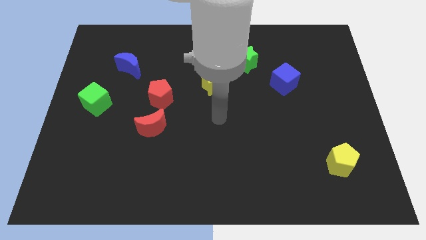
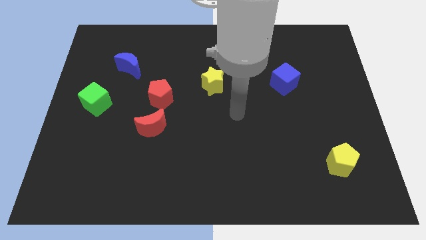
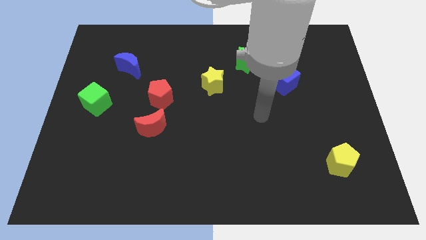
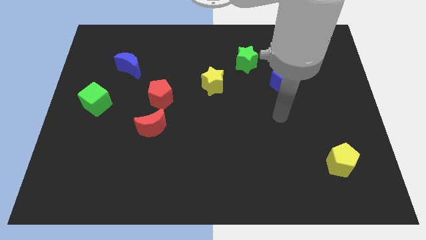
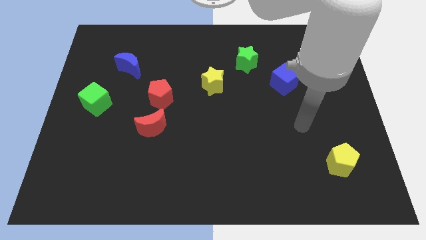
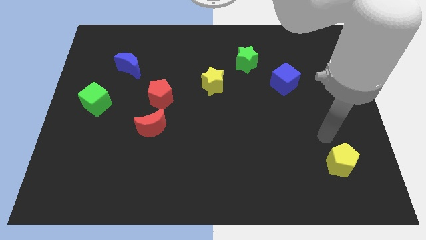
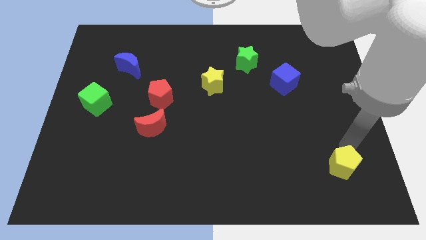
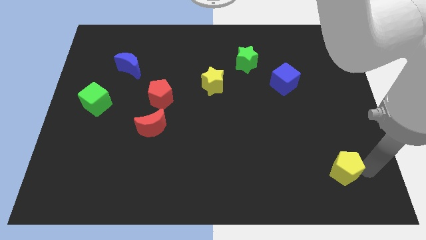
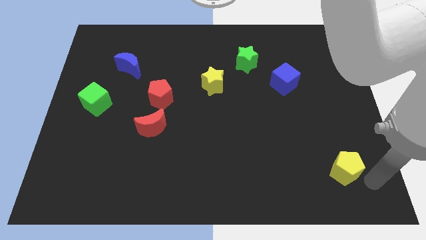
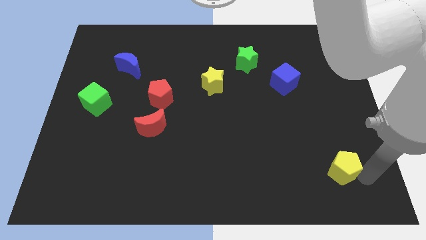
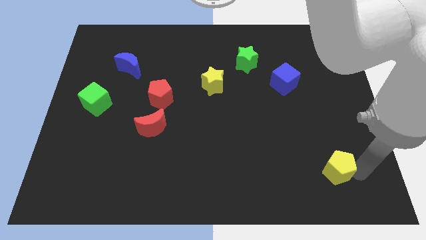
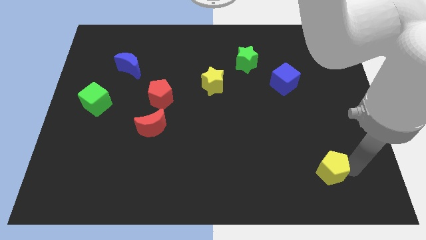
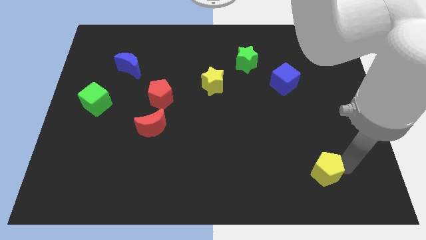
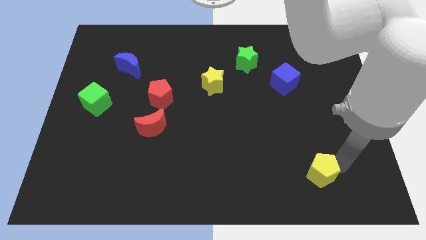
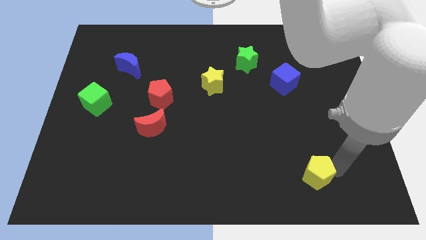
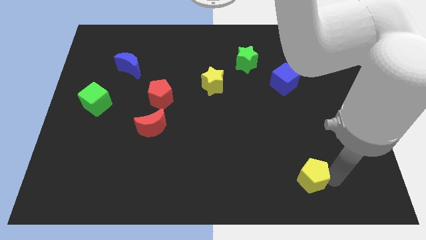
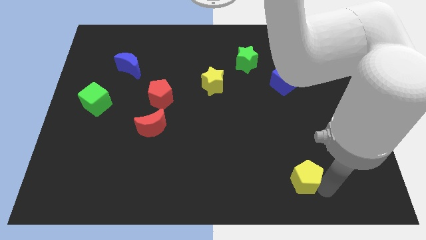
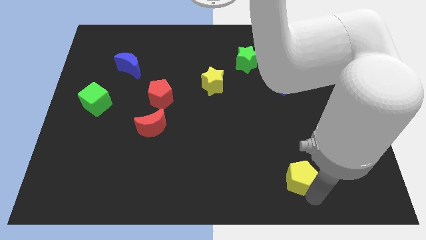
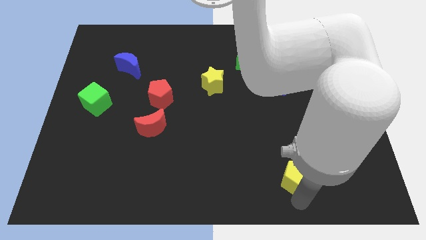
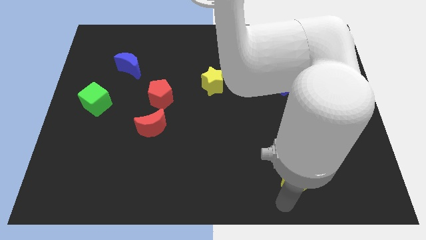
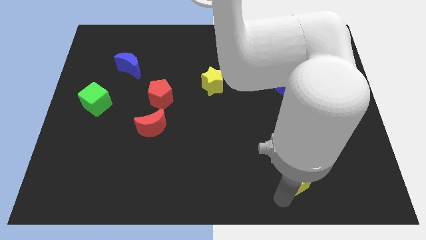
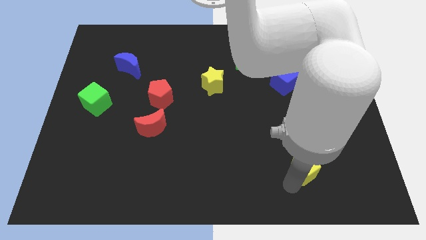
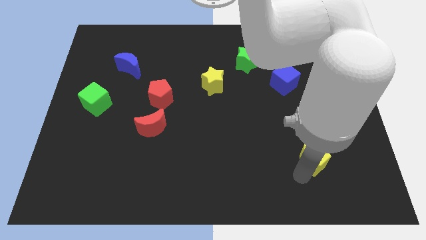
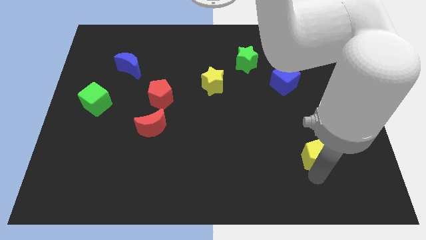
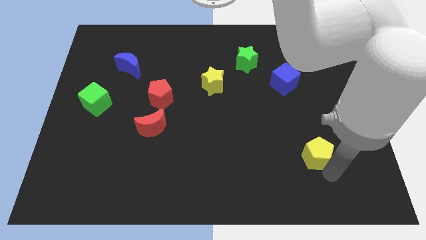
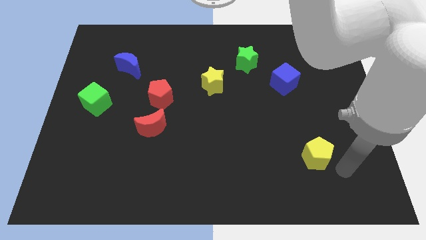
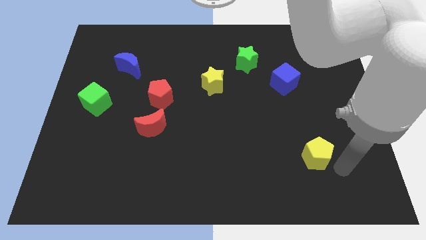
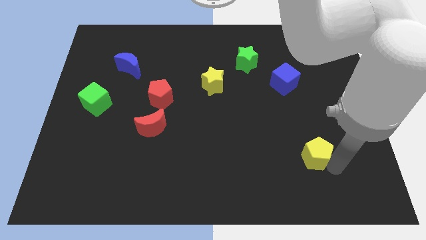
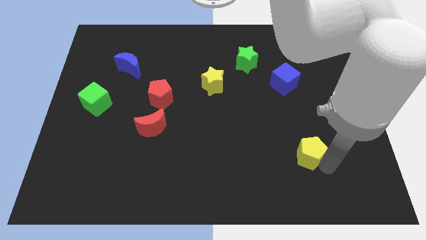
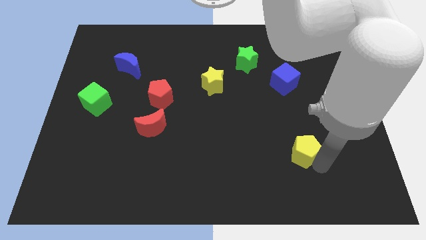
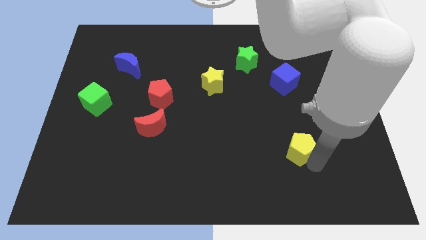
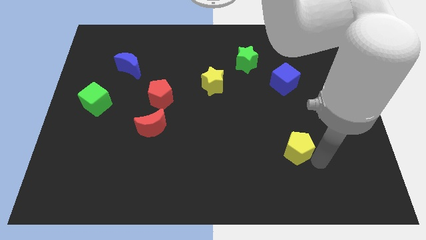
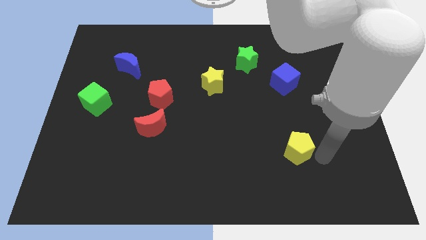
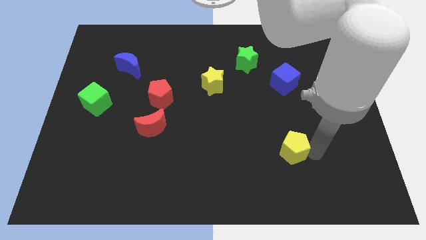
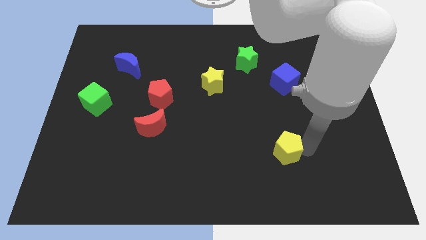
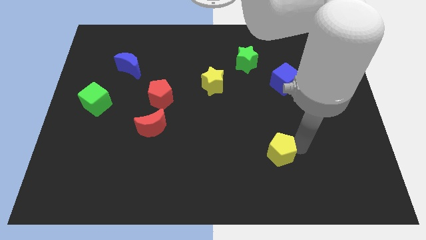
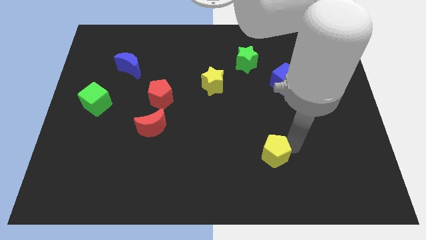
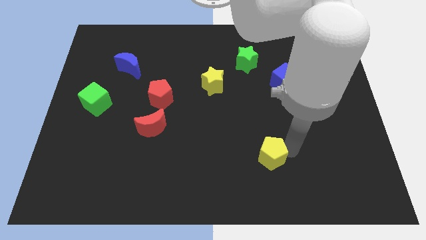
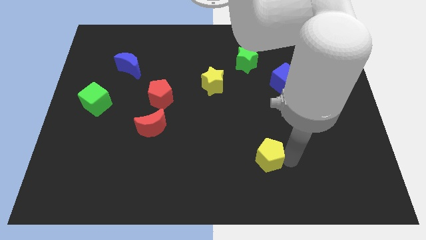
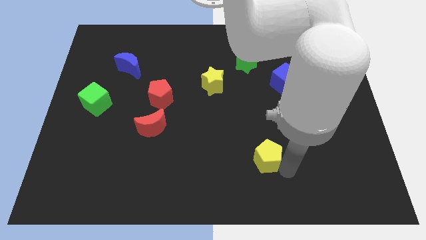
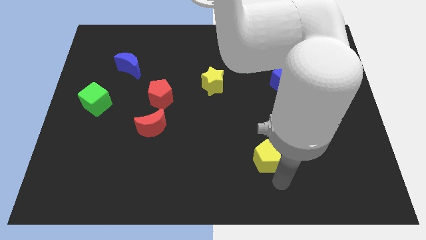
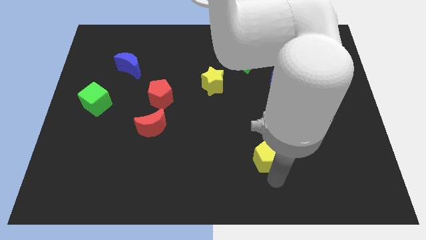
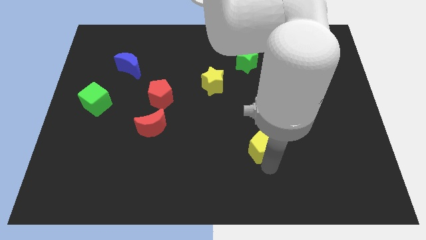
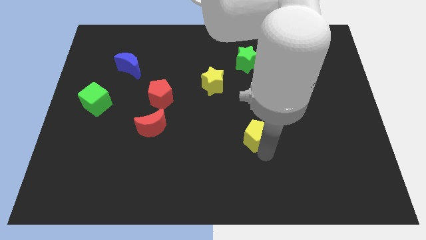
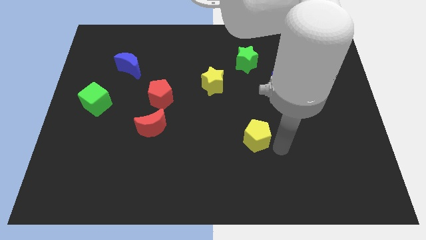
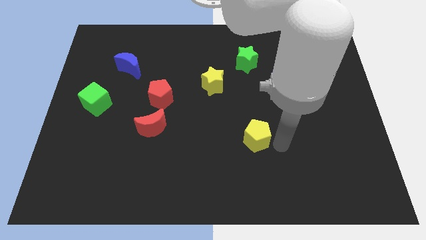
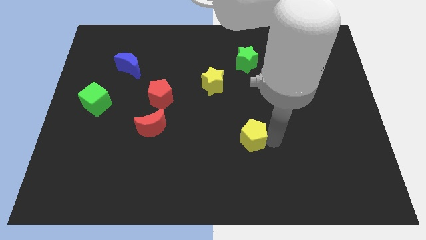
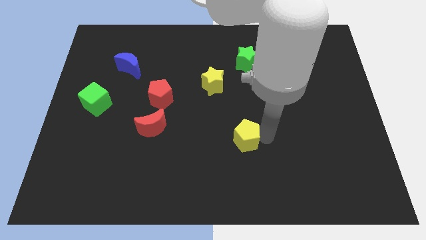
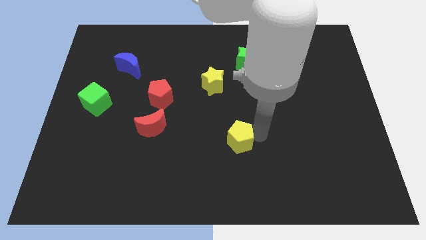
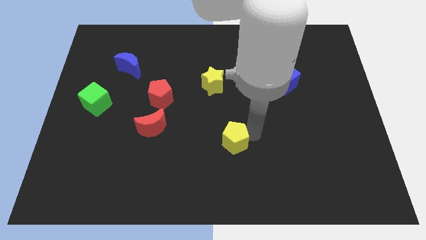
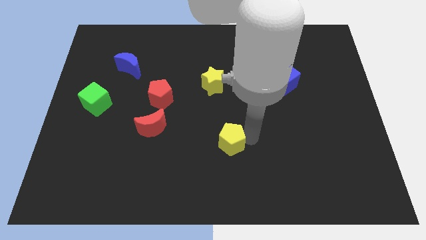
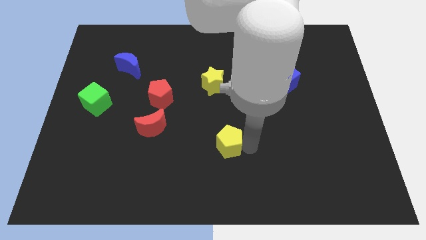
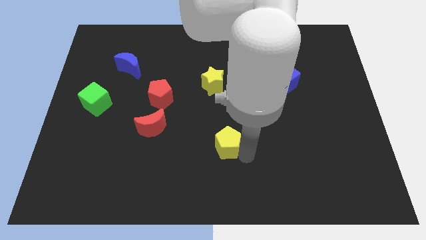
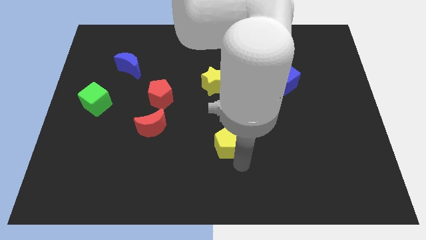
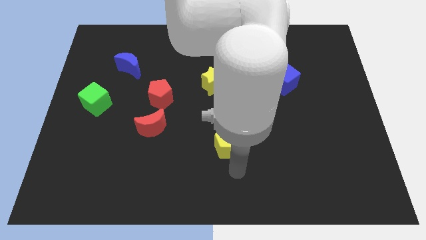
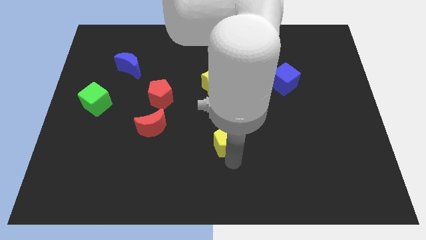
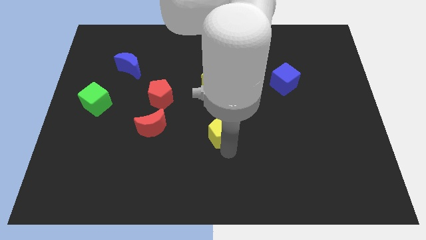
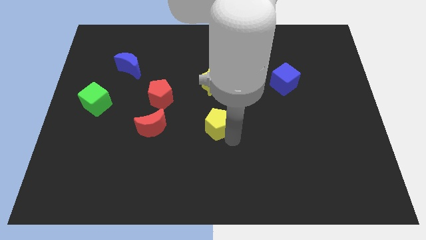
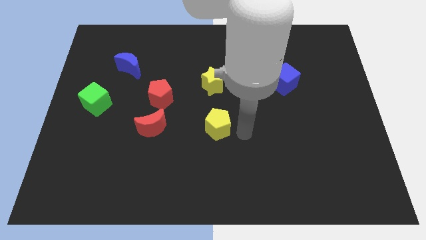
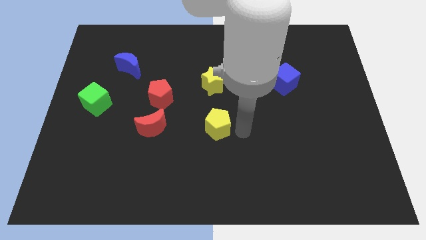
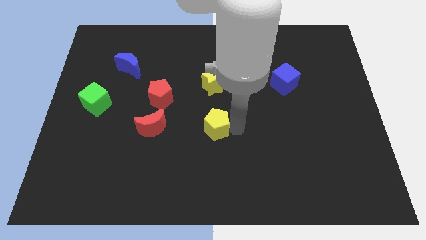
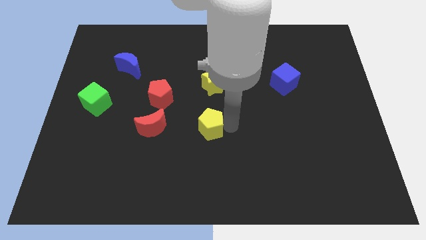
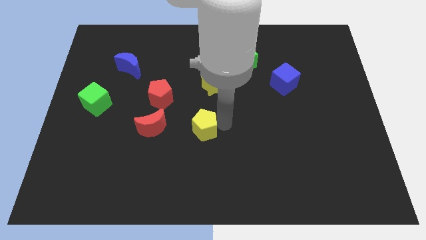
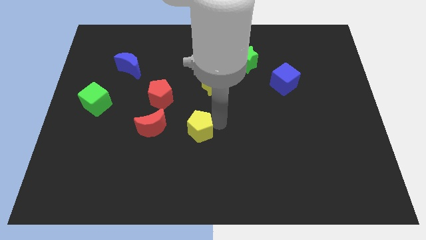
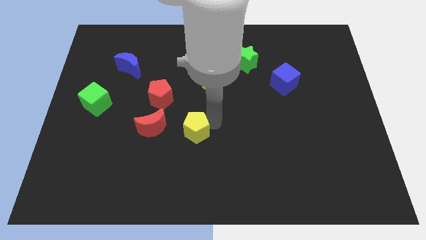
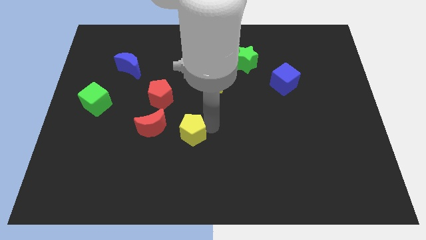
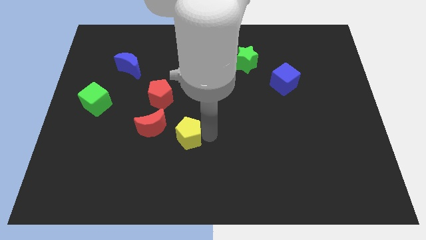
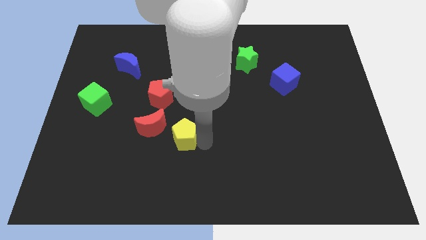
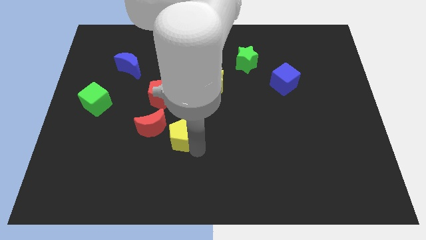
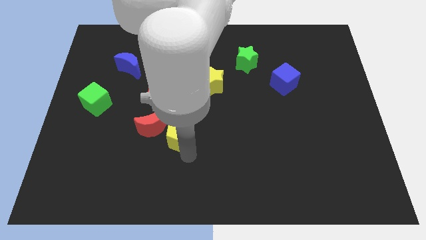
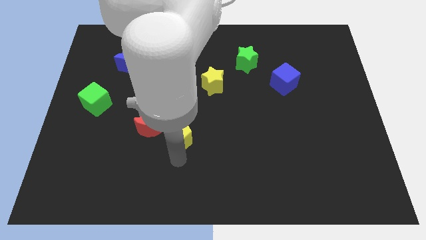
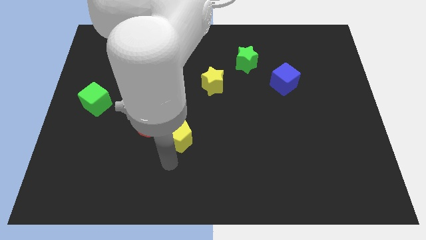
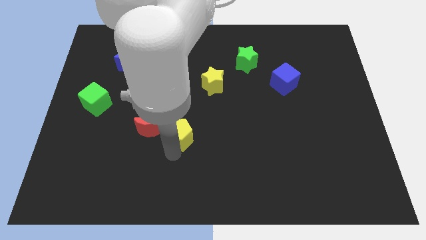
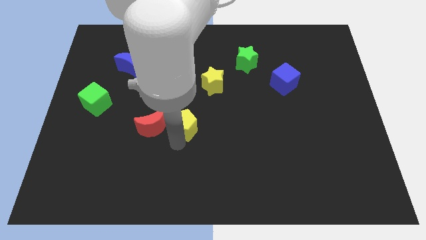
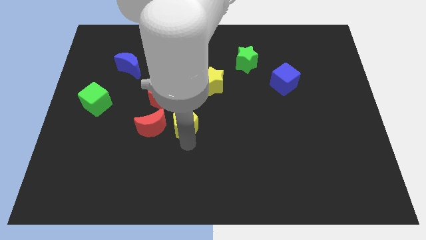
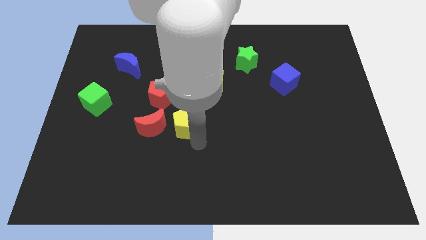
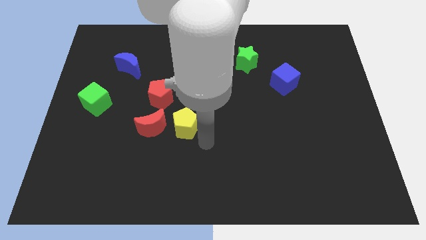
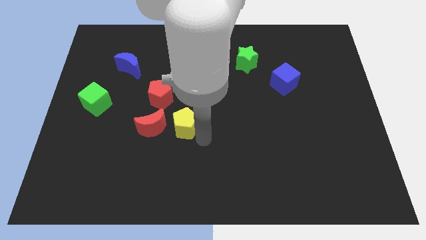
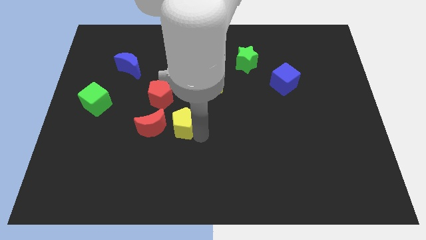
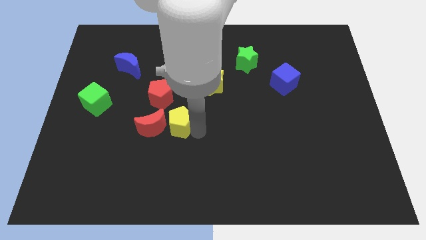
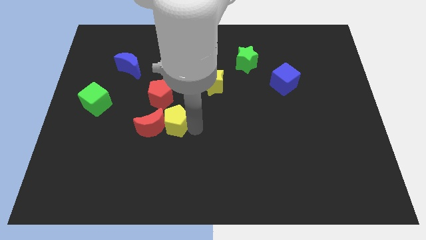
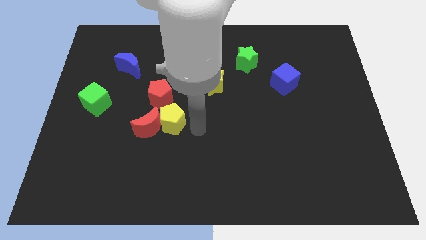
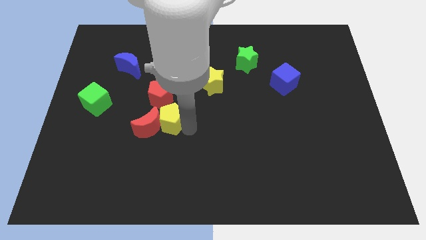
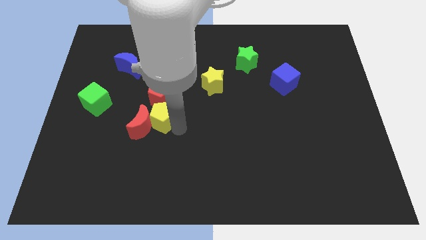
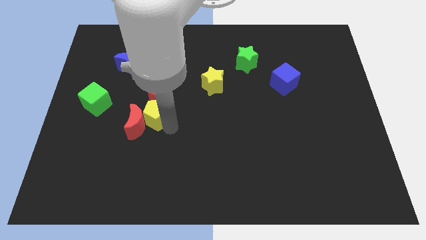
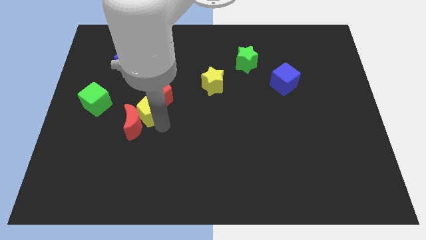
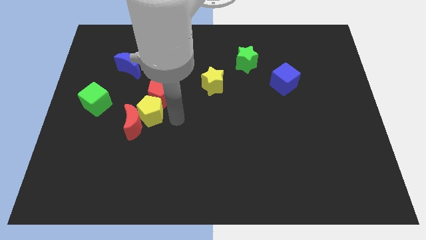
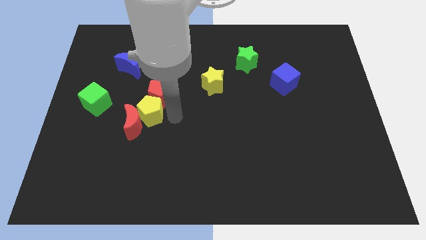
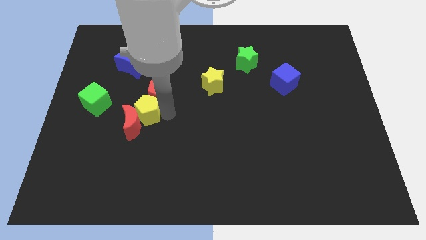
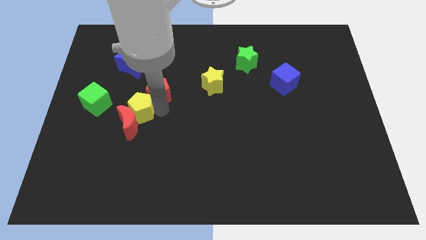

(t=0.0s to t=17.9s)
move the yellow pentagon diagonally up and to the left of the red moon
